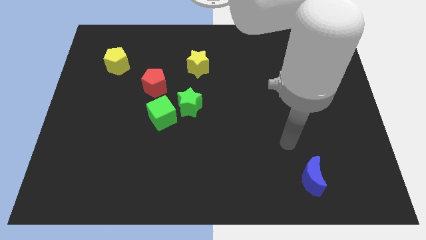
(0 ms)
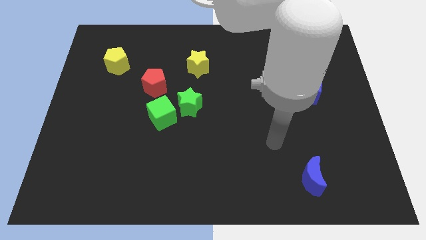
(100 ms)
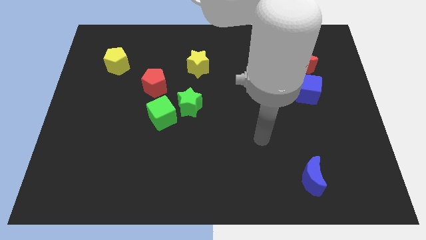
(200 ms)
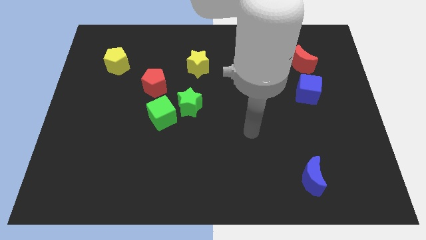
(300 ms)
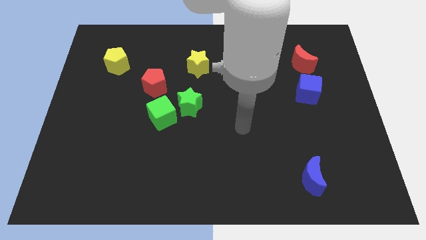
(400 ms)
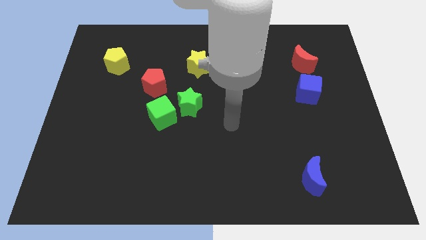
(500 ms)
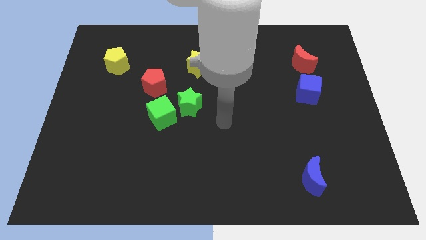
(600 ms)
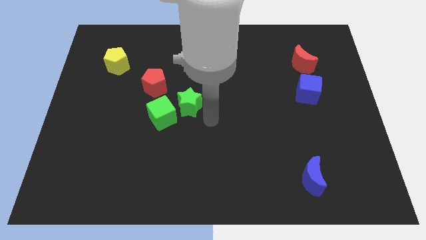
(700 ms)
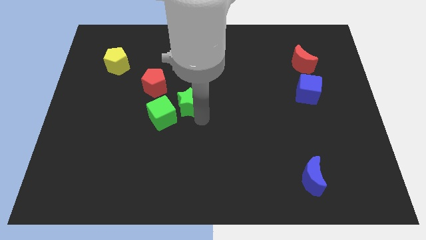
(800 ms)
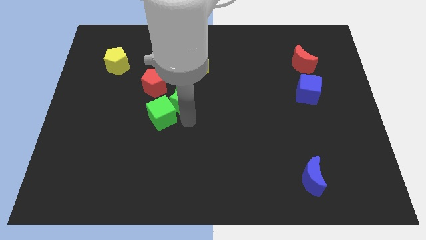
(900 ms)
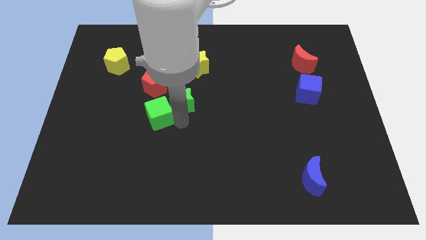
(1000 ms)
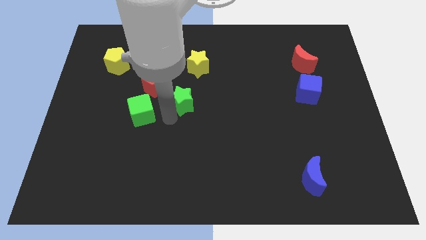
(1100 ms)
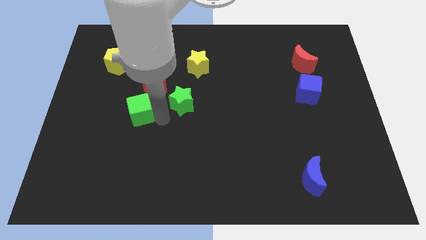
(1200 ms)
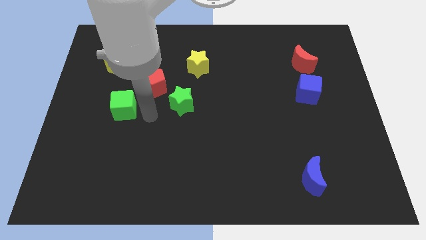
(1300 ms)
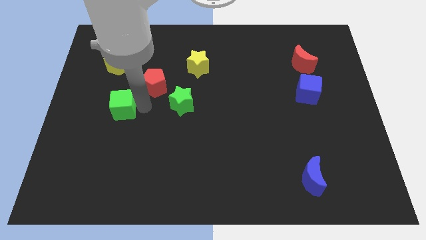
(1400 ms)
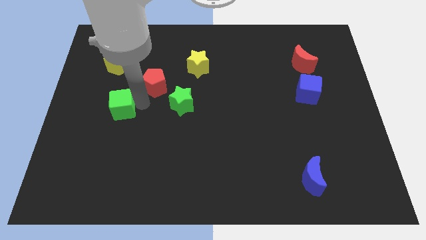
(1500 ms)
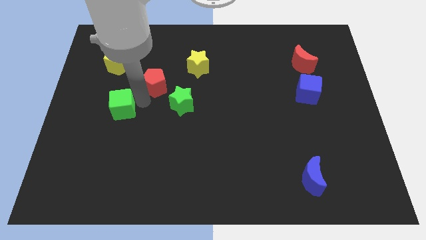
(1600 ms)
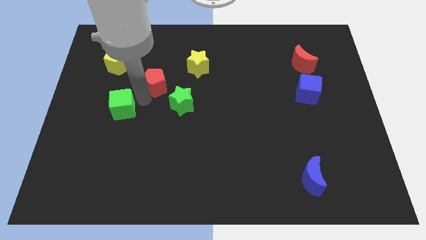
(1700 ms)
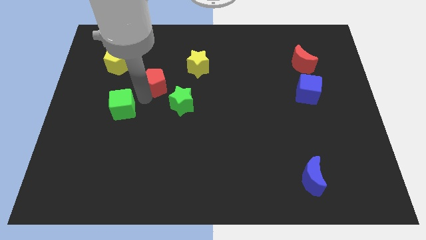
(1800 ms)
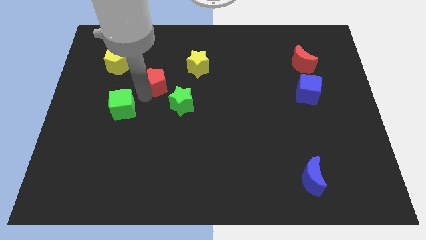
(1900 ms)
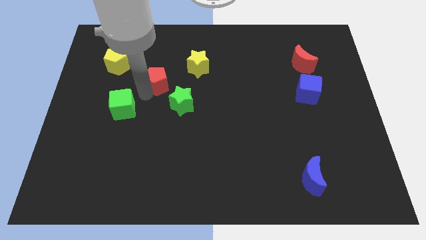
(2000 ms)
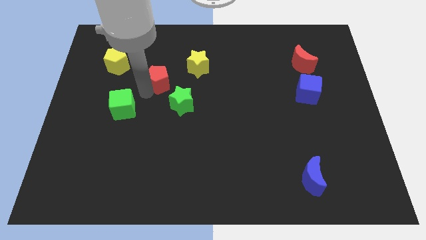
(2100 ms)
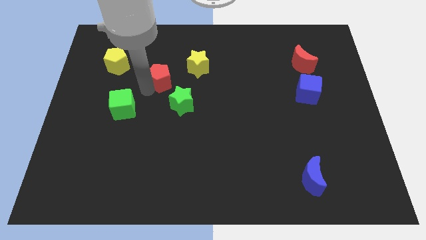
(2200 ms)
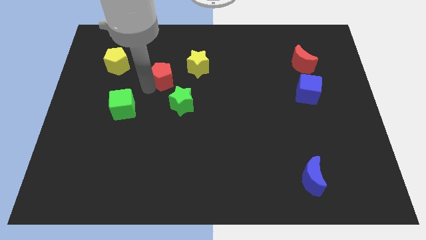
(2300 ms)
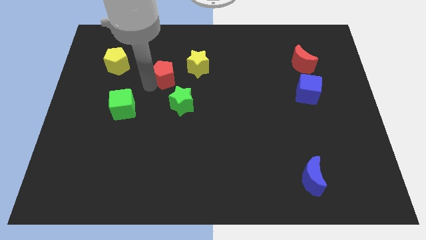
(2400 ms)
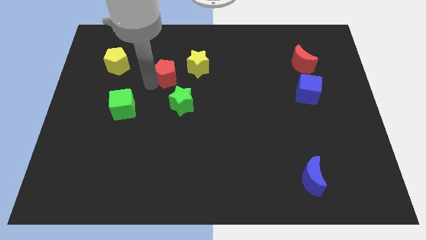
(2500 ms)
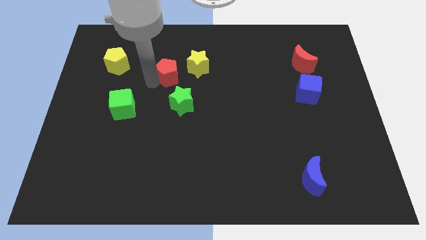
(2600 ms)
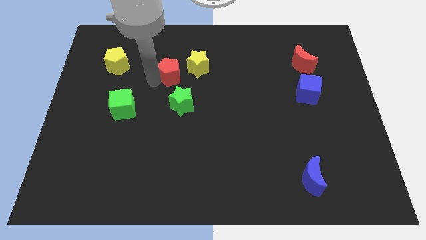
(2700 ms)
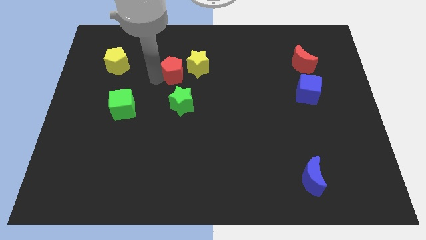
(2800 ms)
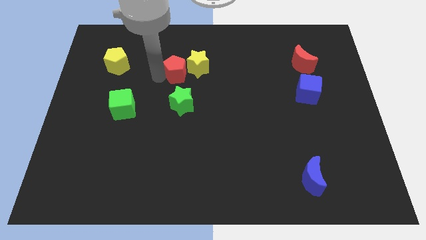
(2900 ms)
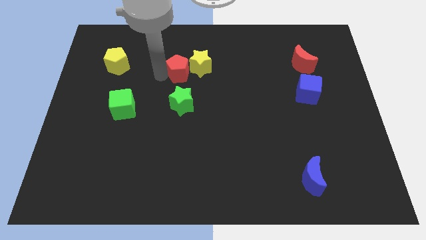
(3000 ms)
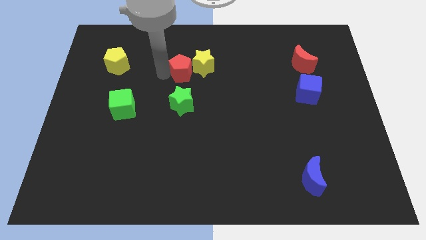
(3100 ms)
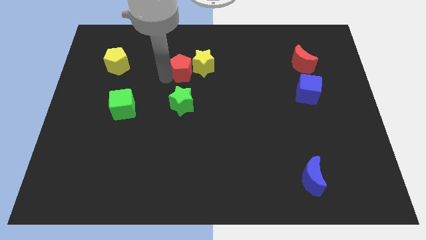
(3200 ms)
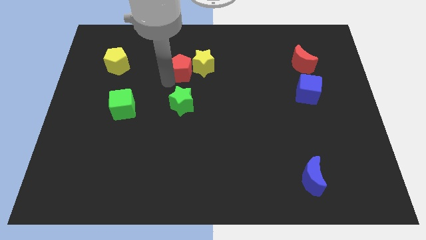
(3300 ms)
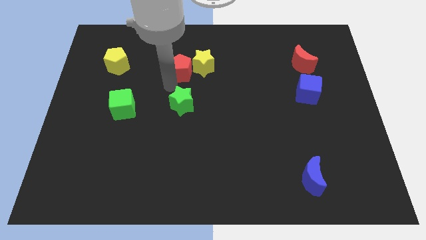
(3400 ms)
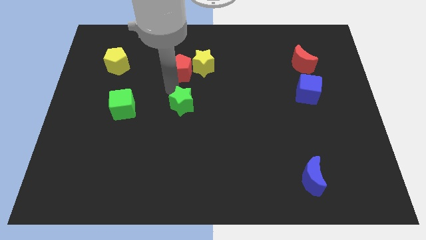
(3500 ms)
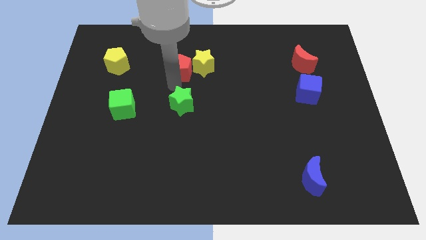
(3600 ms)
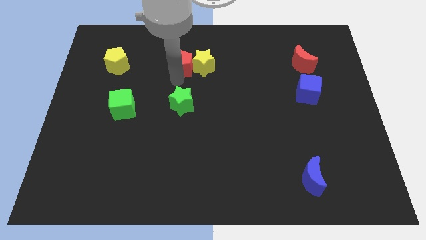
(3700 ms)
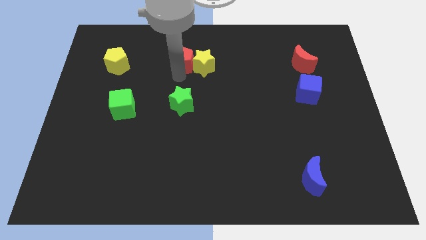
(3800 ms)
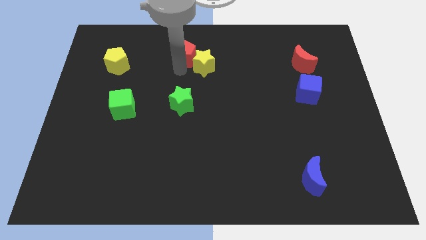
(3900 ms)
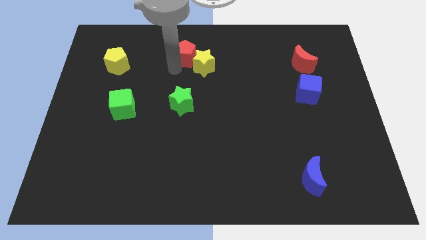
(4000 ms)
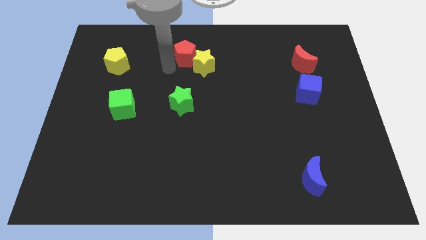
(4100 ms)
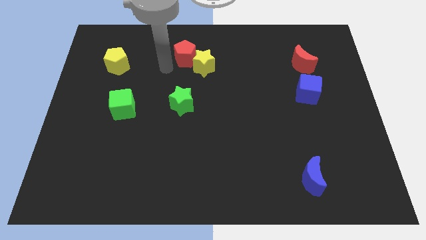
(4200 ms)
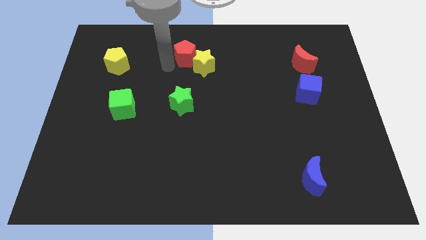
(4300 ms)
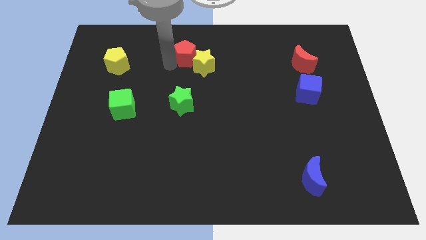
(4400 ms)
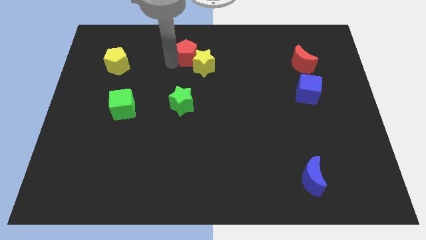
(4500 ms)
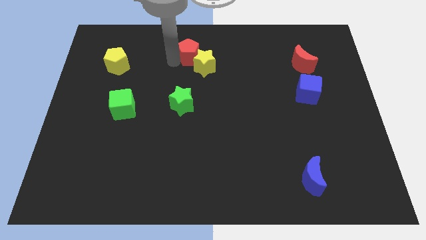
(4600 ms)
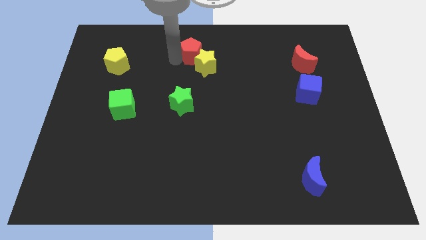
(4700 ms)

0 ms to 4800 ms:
slide the red pentagon to the top

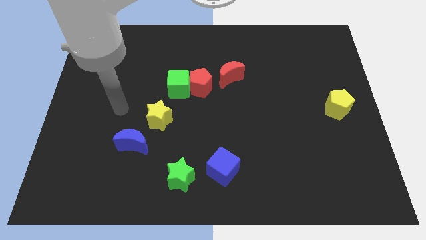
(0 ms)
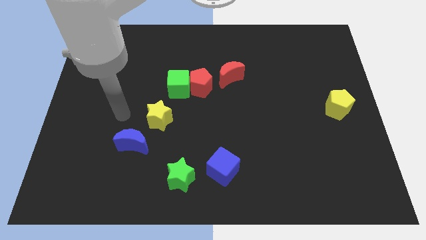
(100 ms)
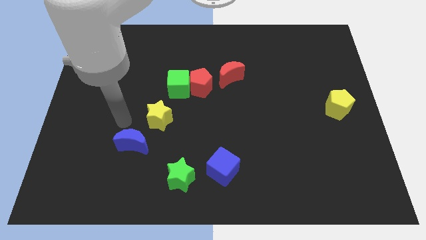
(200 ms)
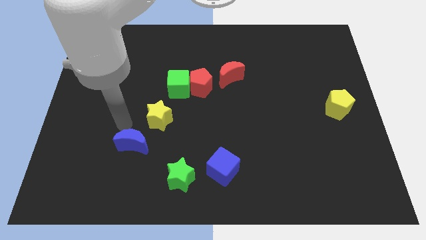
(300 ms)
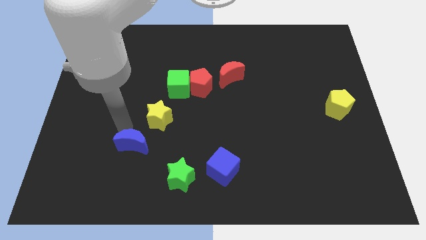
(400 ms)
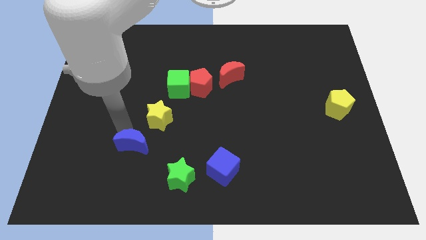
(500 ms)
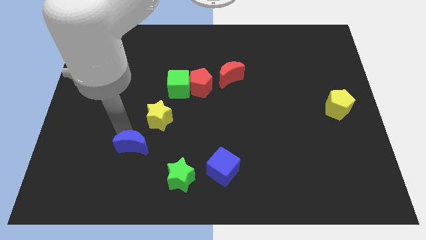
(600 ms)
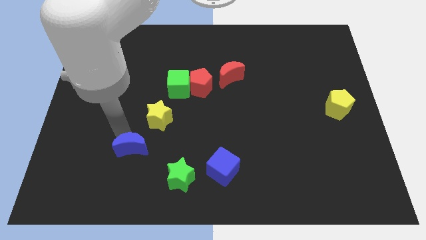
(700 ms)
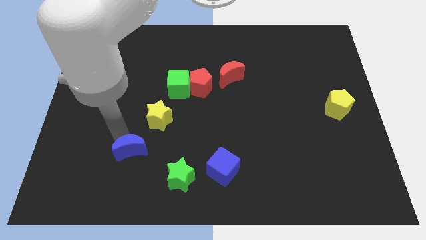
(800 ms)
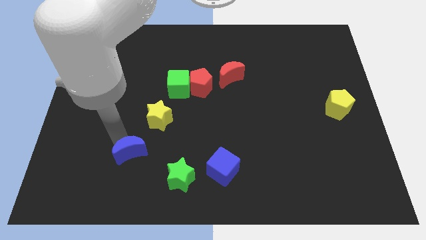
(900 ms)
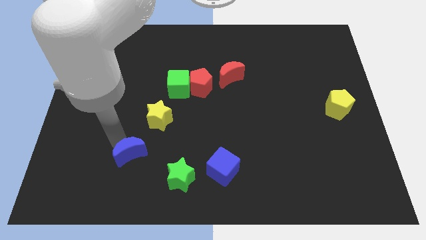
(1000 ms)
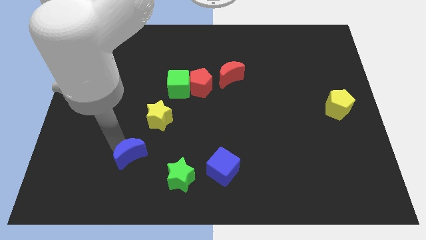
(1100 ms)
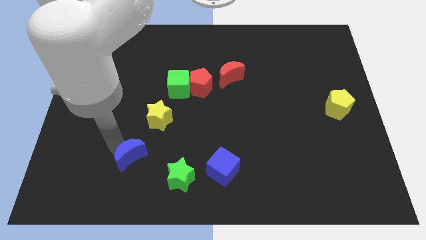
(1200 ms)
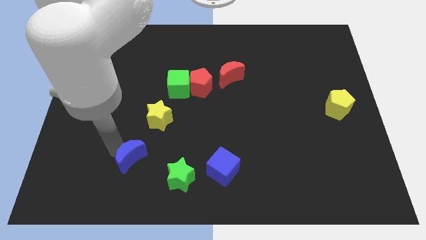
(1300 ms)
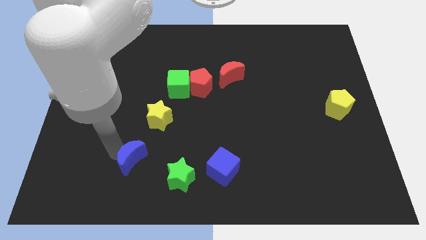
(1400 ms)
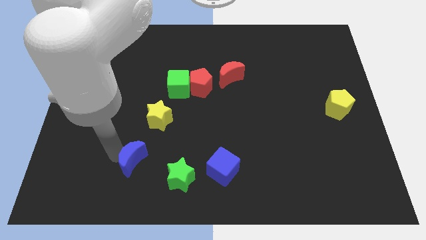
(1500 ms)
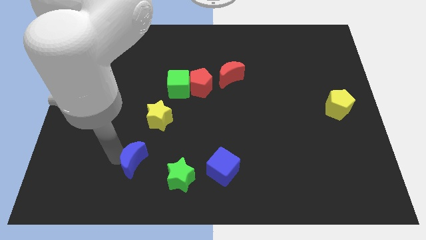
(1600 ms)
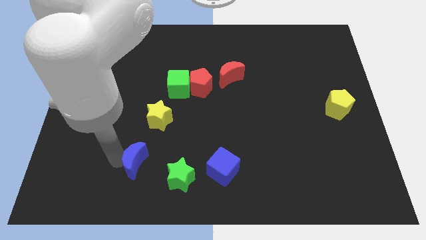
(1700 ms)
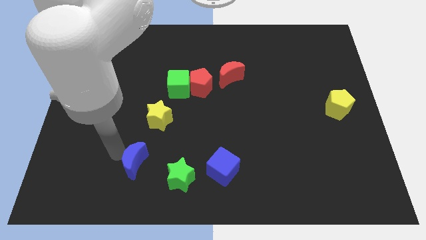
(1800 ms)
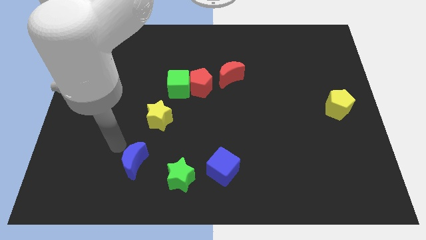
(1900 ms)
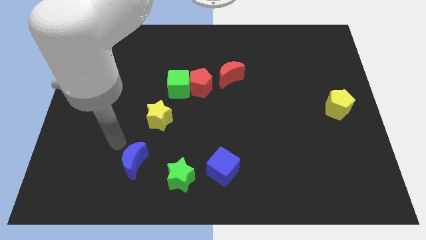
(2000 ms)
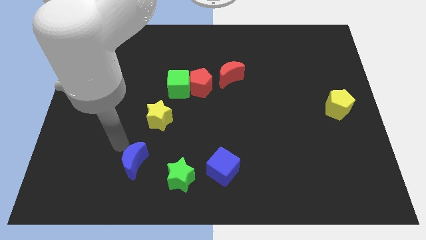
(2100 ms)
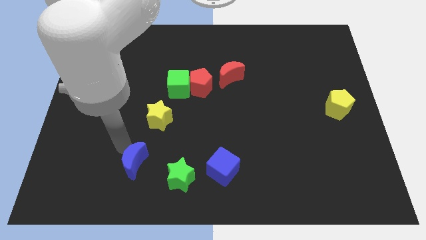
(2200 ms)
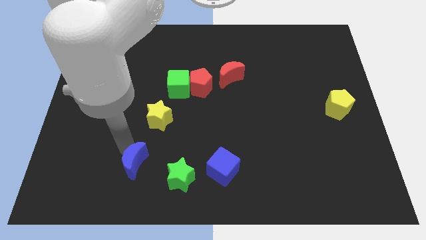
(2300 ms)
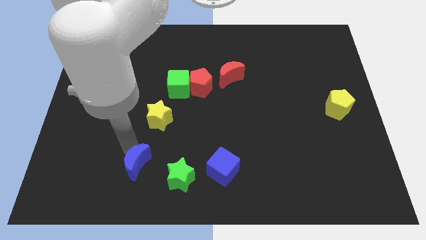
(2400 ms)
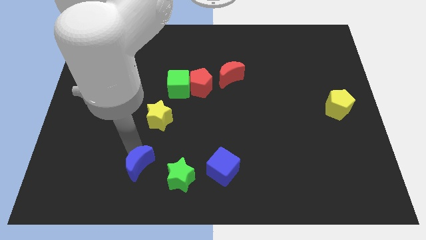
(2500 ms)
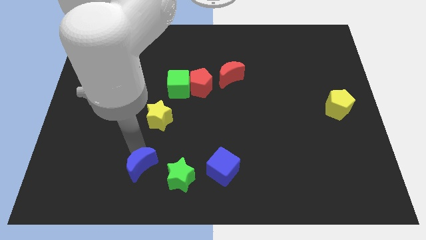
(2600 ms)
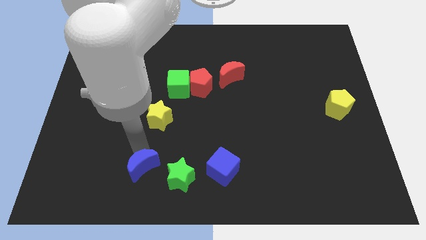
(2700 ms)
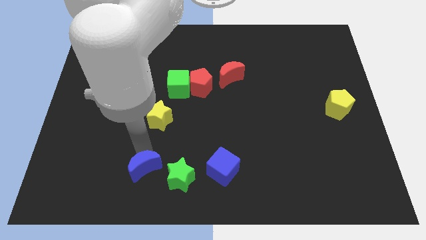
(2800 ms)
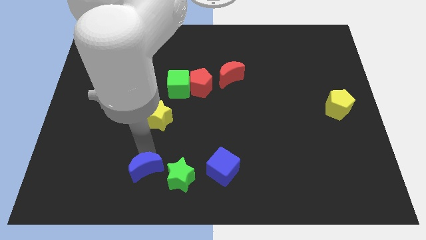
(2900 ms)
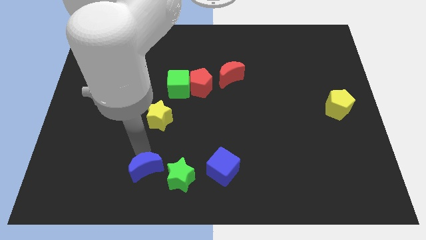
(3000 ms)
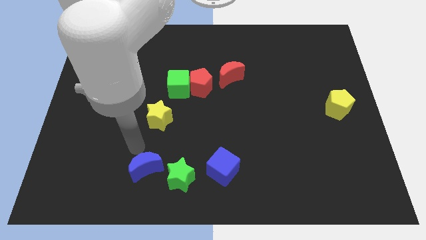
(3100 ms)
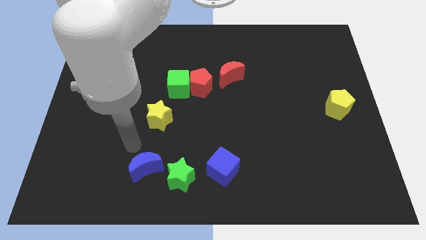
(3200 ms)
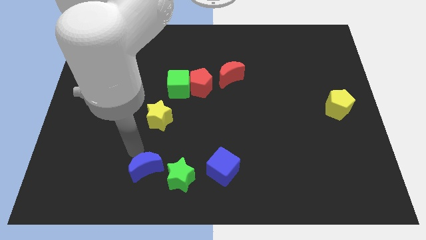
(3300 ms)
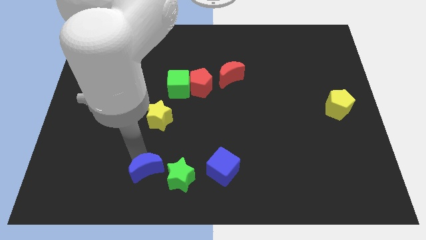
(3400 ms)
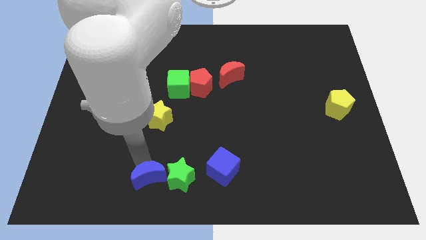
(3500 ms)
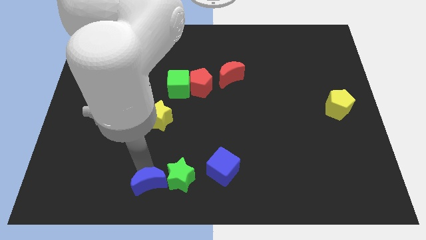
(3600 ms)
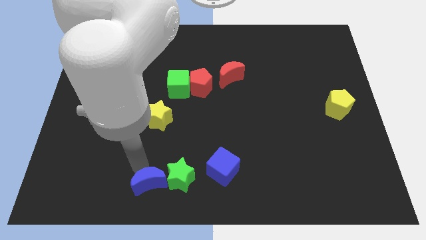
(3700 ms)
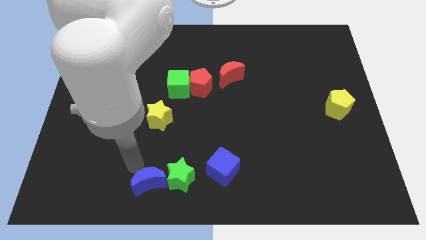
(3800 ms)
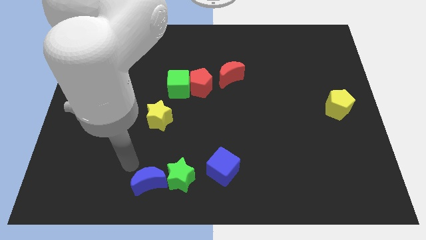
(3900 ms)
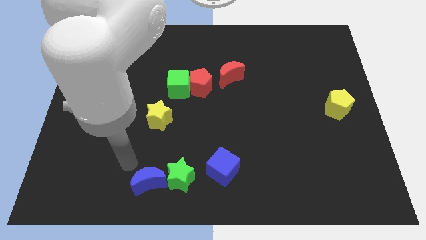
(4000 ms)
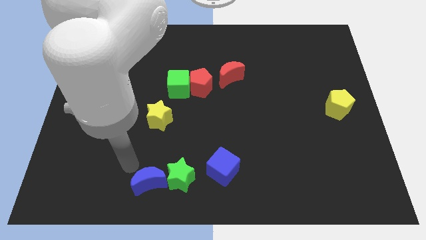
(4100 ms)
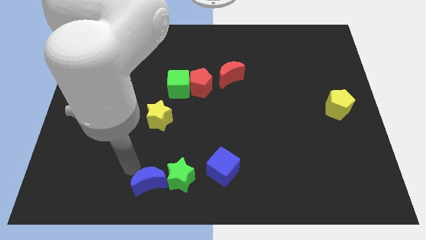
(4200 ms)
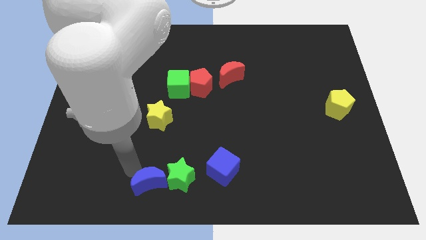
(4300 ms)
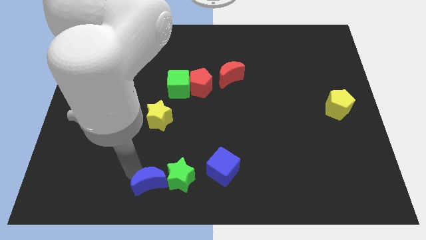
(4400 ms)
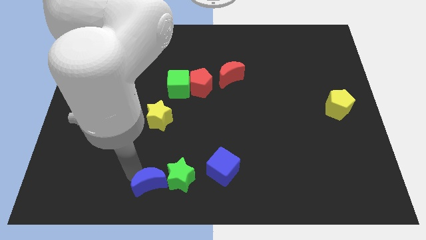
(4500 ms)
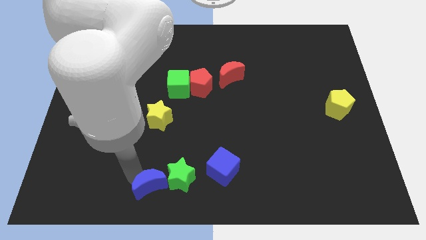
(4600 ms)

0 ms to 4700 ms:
slide the blue moon to the bottom
